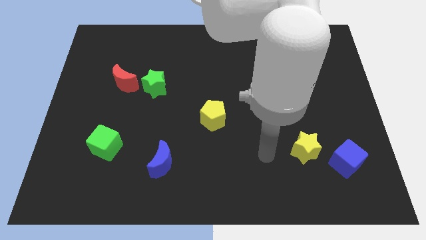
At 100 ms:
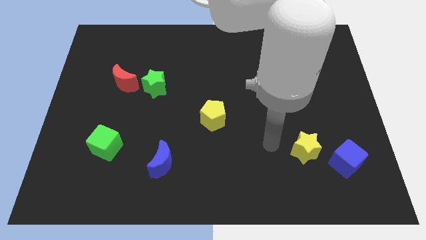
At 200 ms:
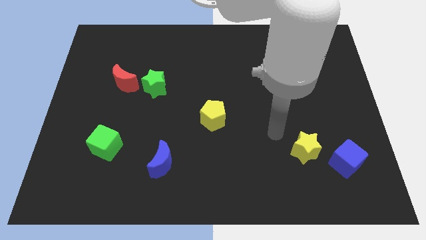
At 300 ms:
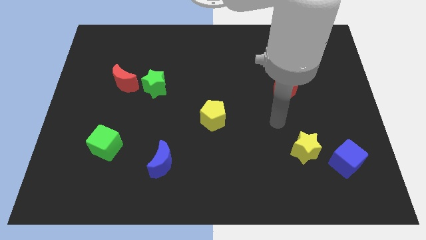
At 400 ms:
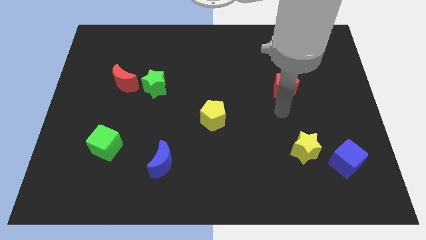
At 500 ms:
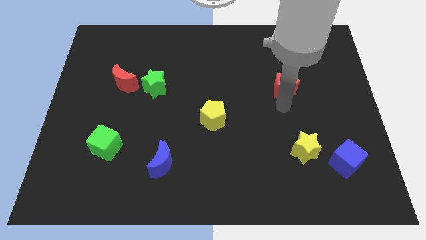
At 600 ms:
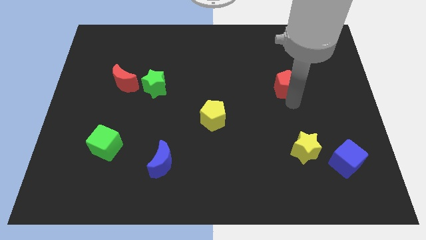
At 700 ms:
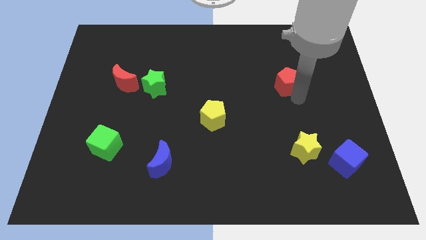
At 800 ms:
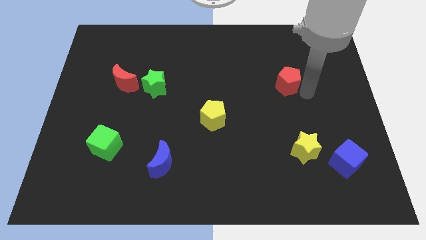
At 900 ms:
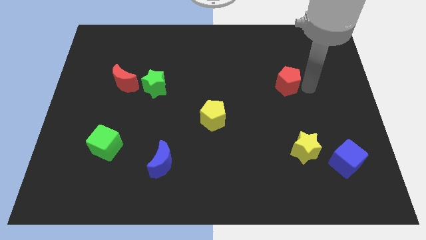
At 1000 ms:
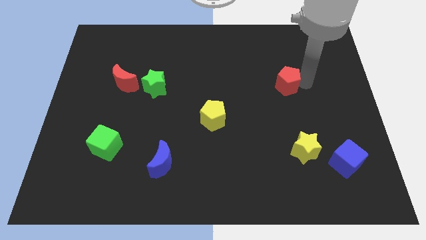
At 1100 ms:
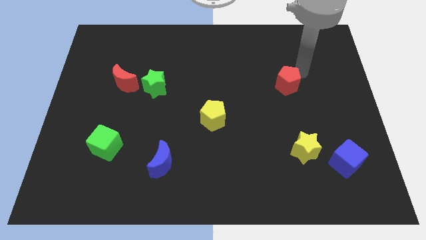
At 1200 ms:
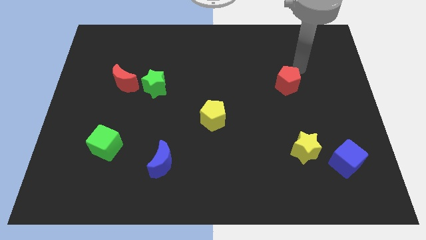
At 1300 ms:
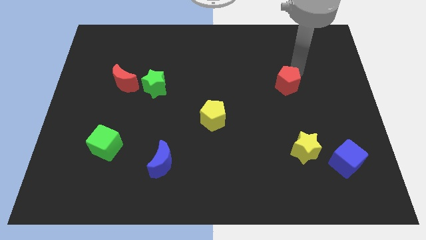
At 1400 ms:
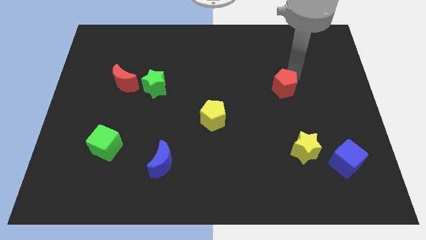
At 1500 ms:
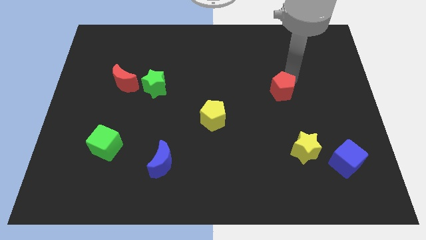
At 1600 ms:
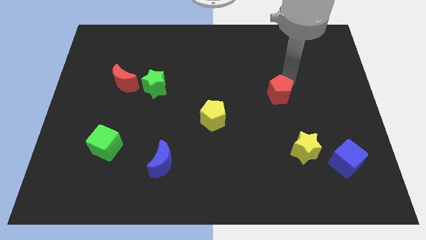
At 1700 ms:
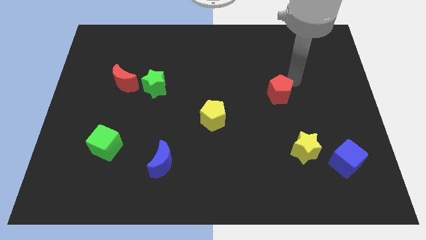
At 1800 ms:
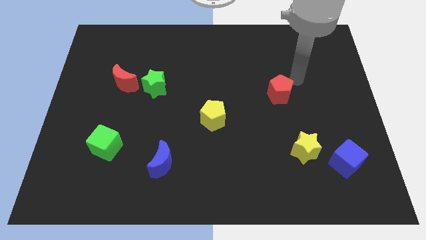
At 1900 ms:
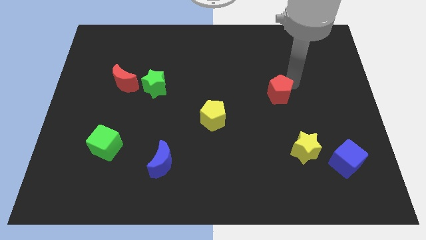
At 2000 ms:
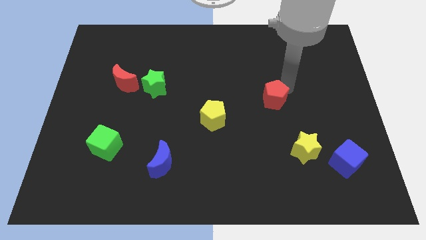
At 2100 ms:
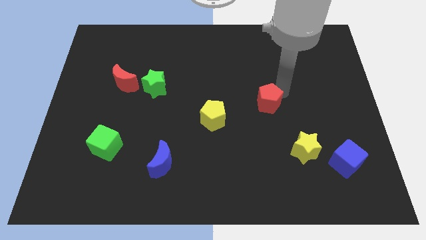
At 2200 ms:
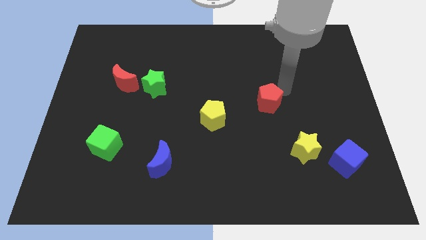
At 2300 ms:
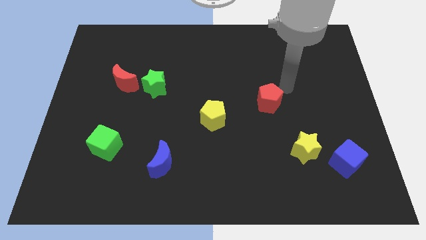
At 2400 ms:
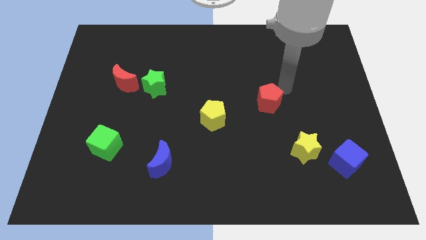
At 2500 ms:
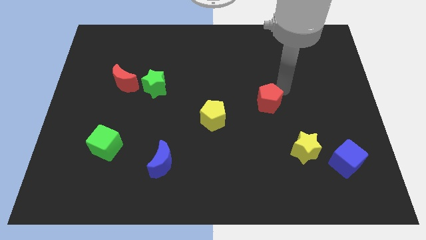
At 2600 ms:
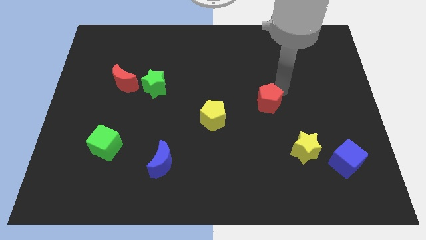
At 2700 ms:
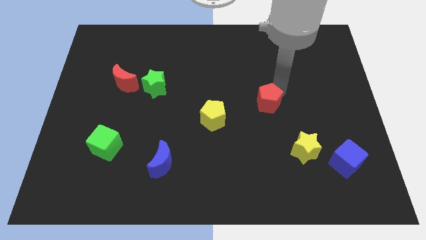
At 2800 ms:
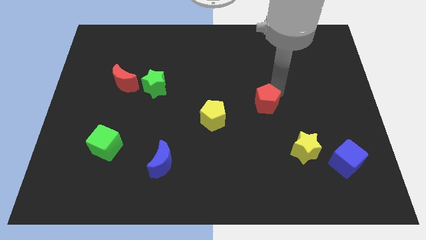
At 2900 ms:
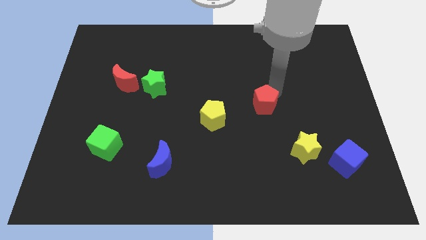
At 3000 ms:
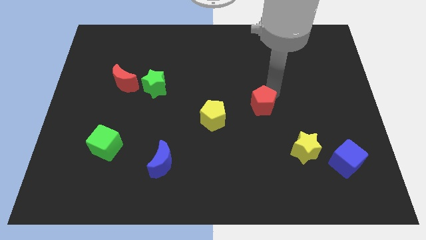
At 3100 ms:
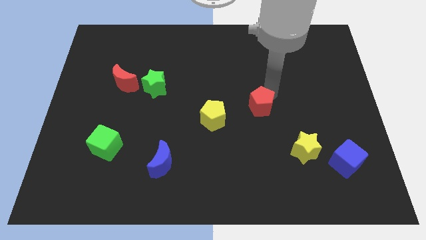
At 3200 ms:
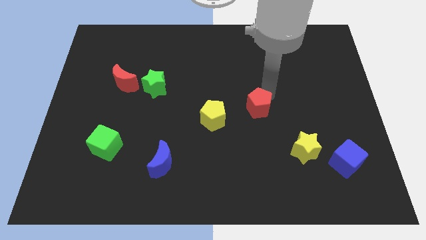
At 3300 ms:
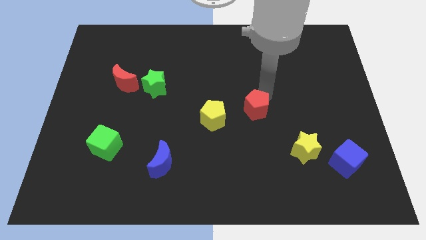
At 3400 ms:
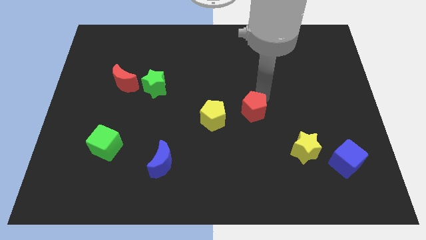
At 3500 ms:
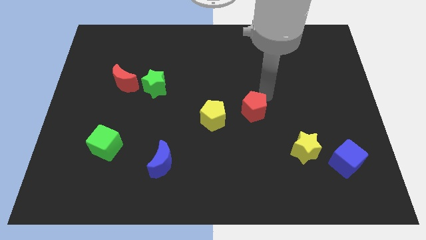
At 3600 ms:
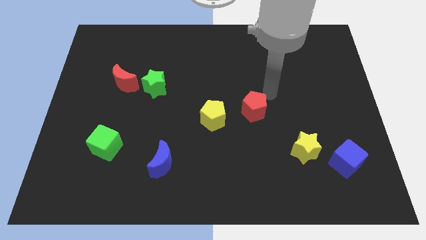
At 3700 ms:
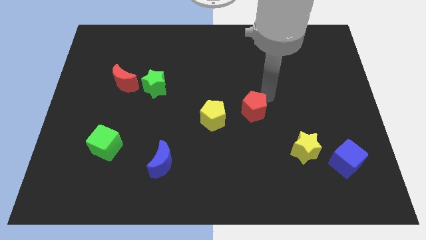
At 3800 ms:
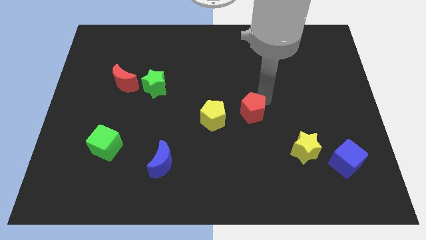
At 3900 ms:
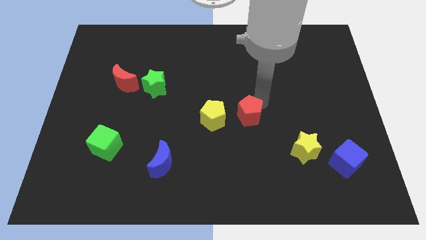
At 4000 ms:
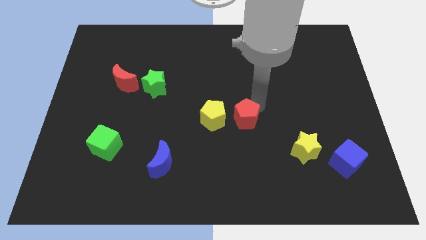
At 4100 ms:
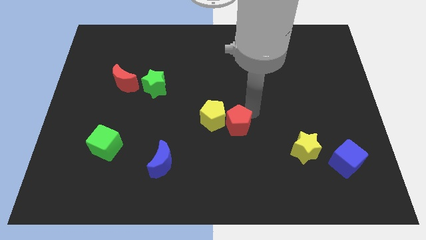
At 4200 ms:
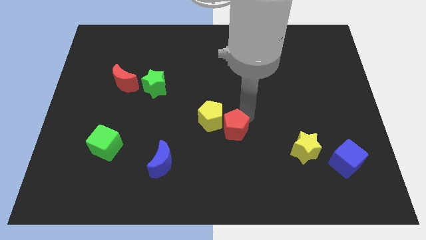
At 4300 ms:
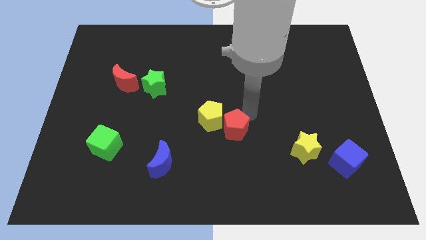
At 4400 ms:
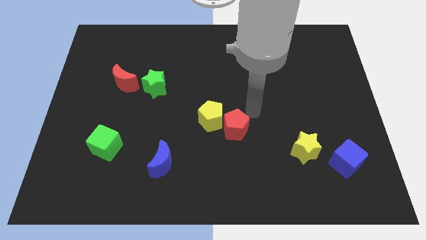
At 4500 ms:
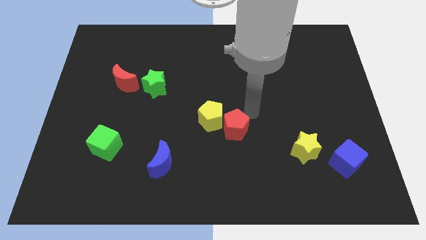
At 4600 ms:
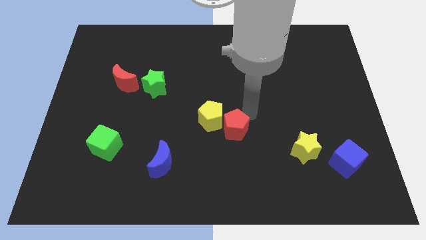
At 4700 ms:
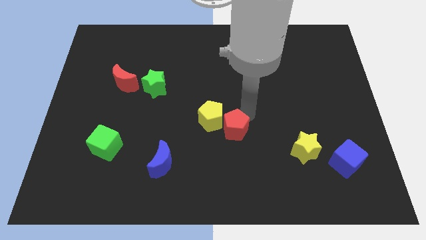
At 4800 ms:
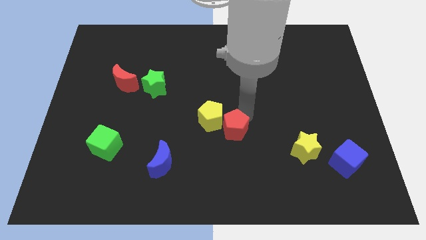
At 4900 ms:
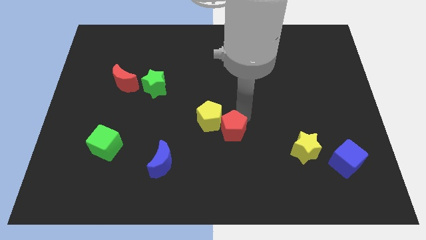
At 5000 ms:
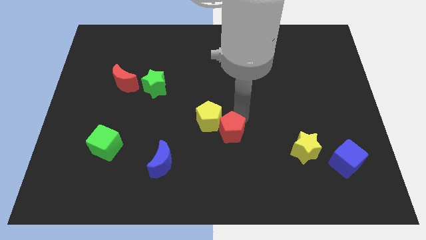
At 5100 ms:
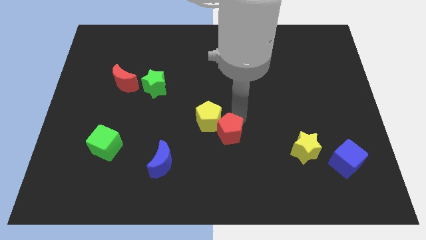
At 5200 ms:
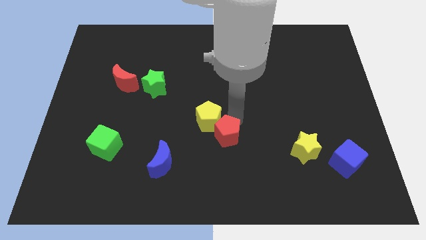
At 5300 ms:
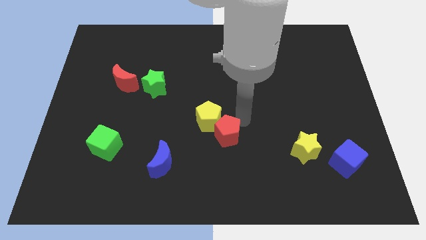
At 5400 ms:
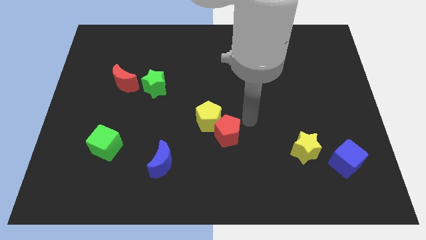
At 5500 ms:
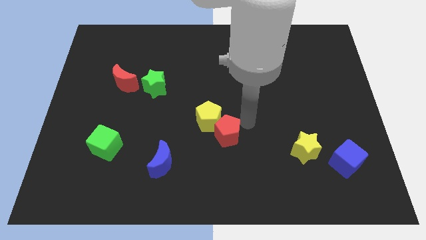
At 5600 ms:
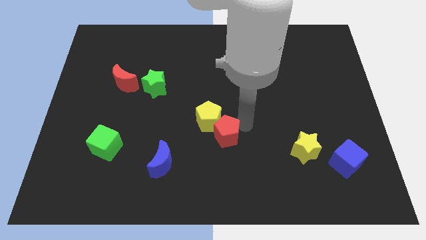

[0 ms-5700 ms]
push the red pentagon downwards and then left

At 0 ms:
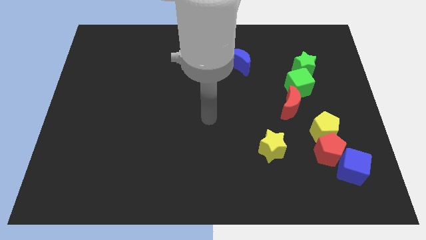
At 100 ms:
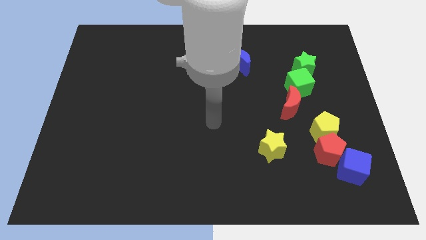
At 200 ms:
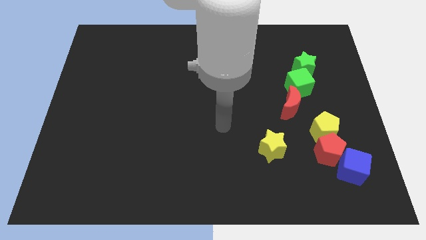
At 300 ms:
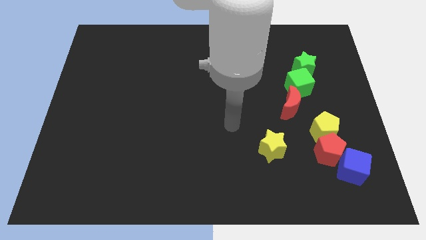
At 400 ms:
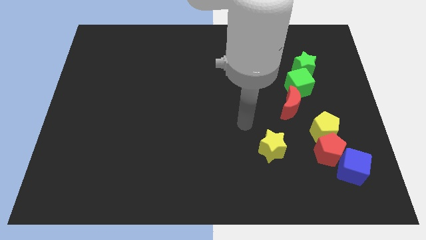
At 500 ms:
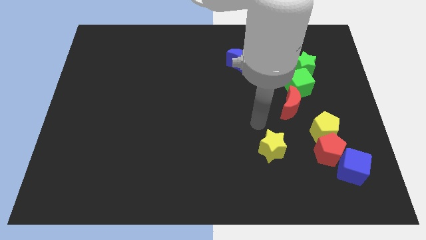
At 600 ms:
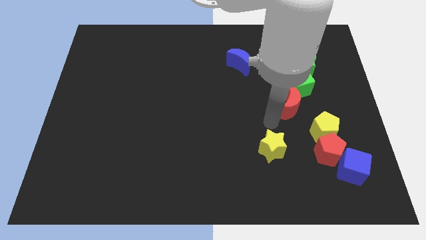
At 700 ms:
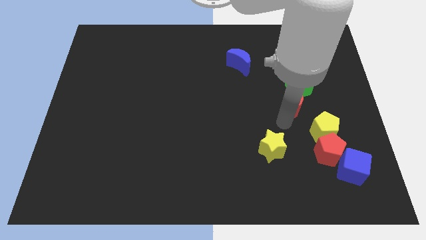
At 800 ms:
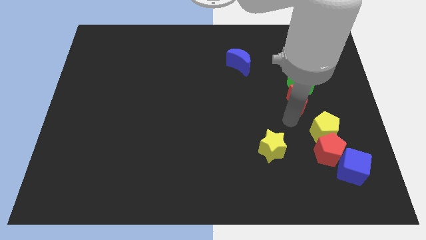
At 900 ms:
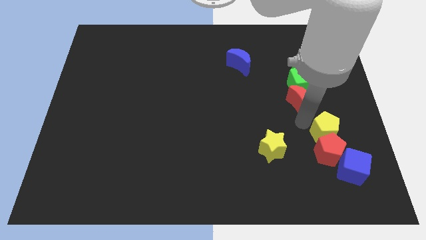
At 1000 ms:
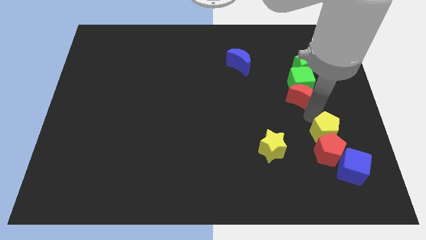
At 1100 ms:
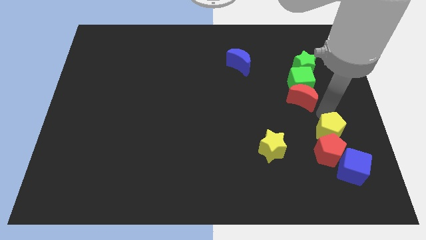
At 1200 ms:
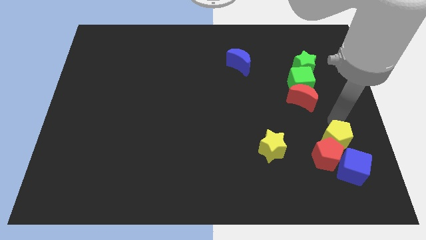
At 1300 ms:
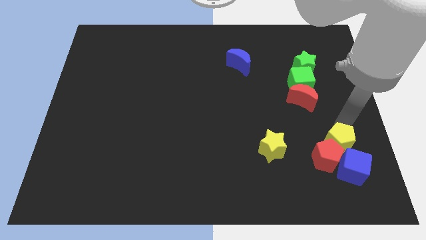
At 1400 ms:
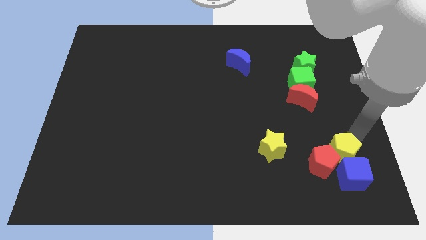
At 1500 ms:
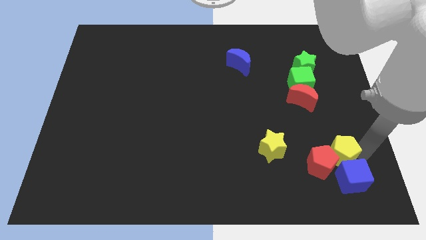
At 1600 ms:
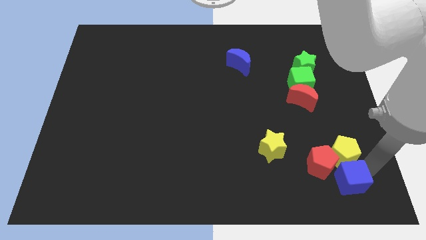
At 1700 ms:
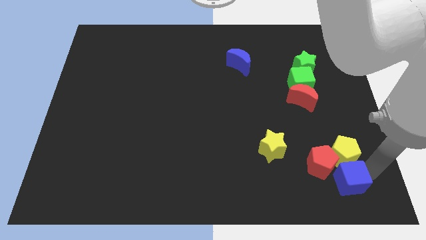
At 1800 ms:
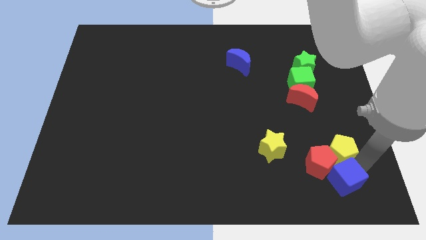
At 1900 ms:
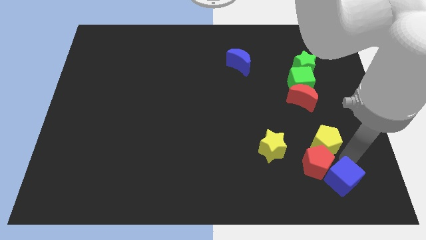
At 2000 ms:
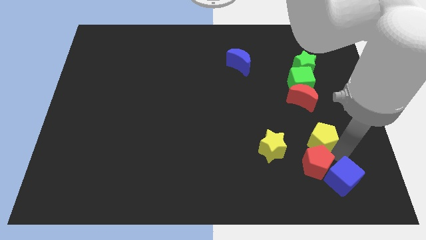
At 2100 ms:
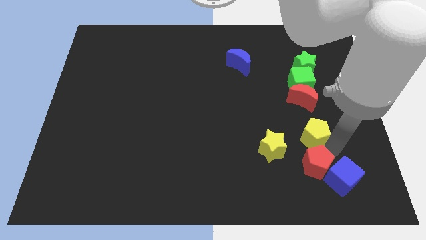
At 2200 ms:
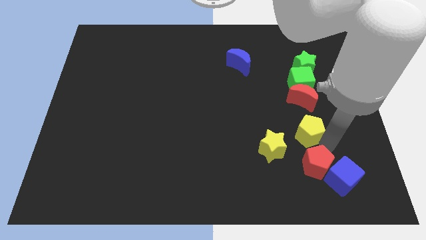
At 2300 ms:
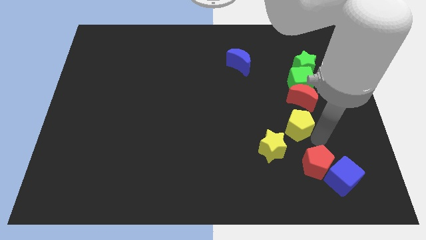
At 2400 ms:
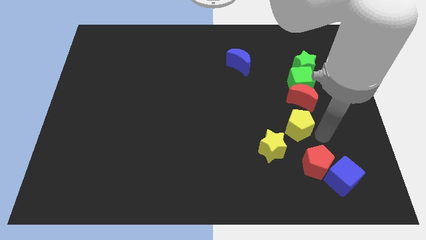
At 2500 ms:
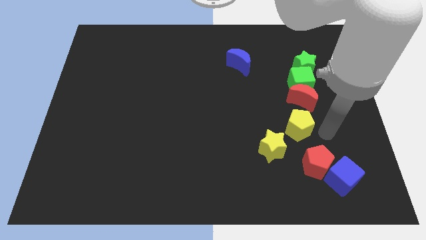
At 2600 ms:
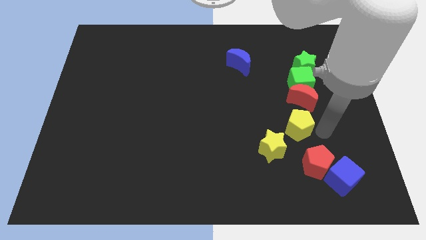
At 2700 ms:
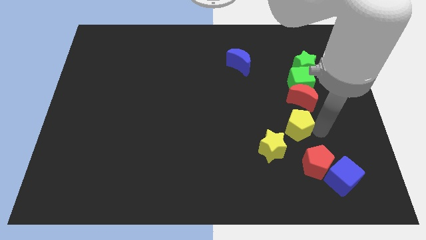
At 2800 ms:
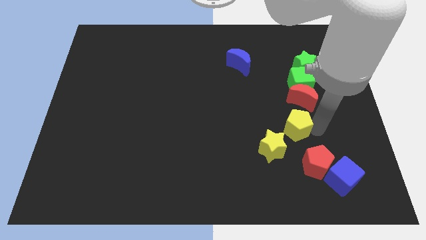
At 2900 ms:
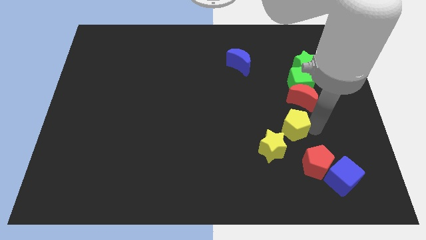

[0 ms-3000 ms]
push the yellow pentagon somewhat left

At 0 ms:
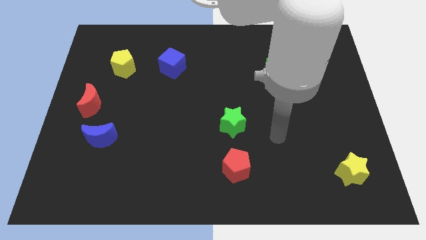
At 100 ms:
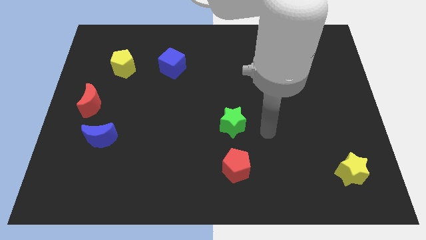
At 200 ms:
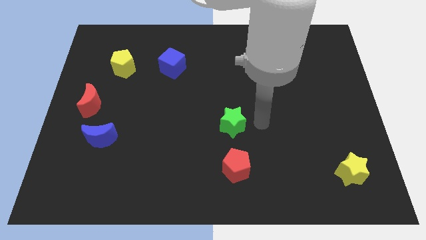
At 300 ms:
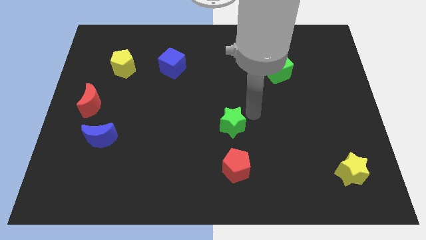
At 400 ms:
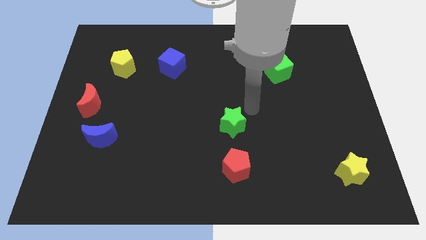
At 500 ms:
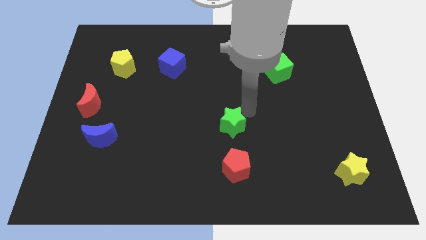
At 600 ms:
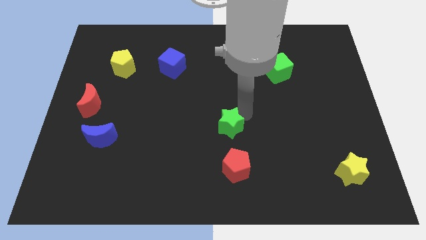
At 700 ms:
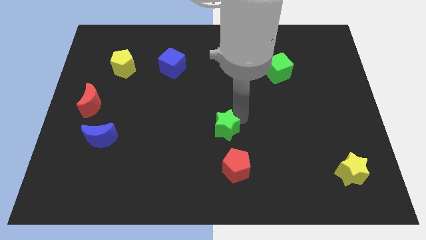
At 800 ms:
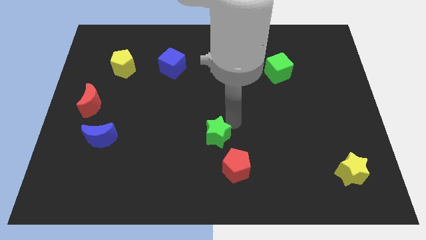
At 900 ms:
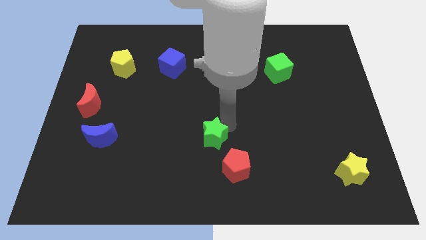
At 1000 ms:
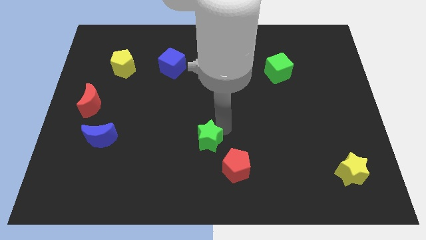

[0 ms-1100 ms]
slide the green star a bit downwards and then to the left
